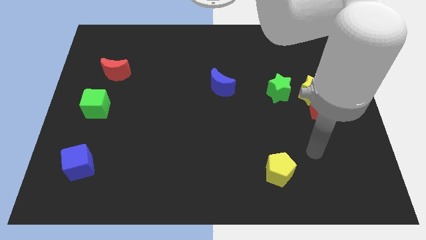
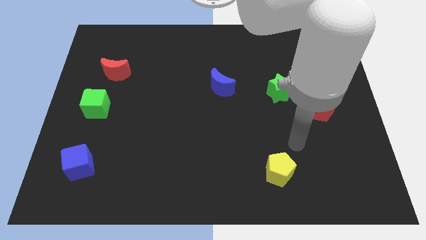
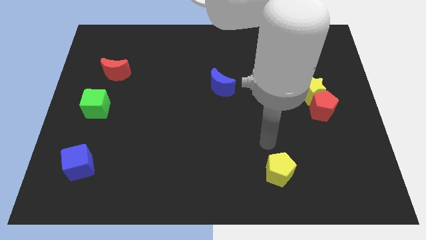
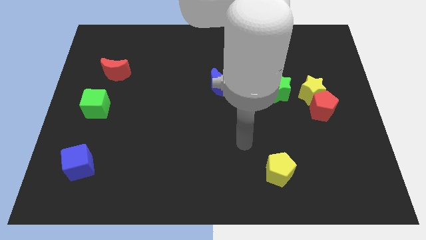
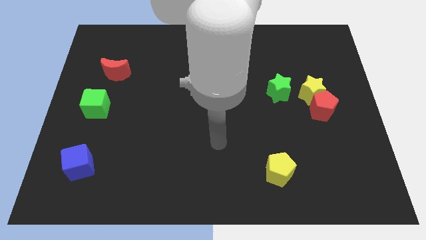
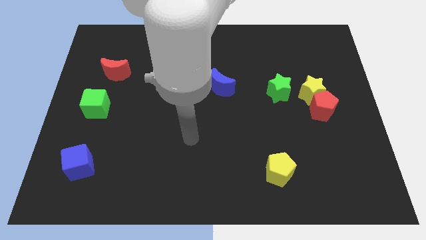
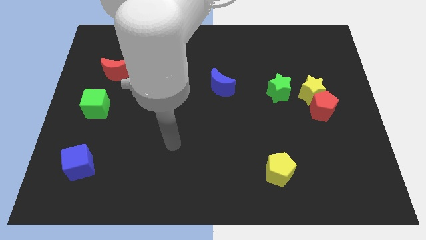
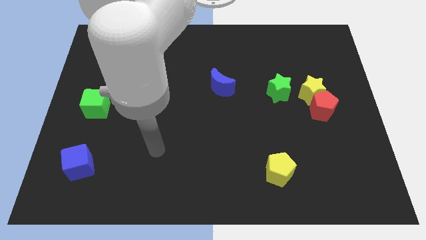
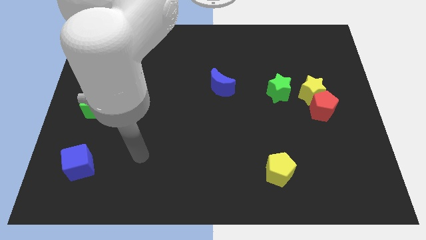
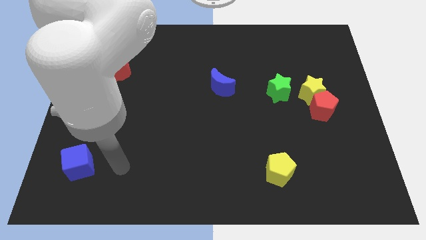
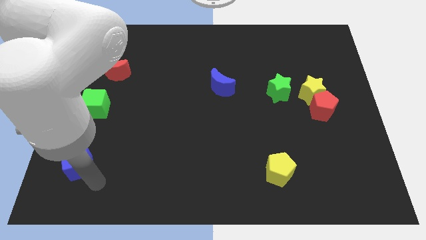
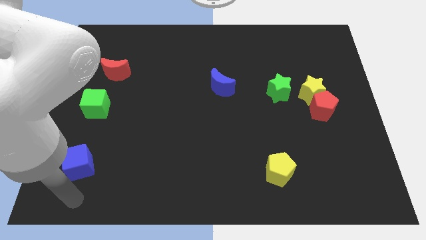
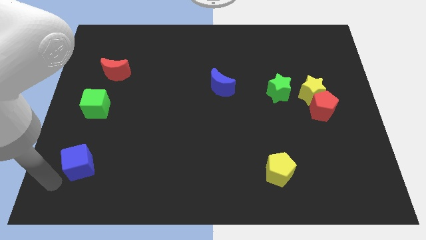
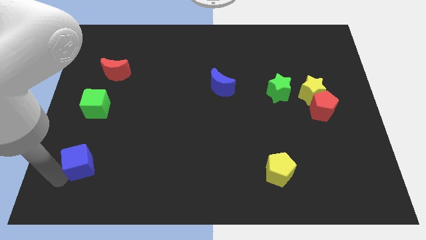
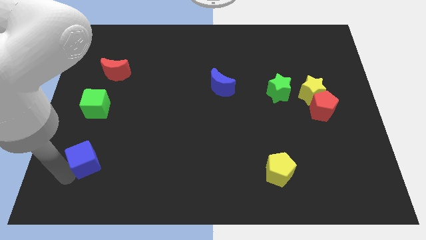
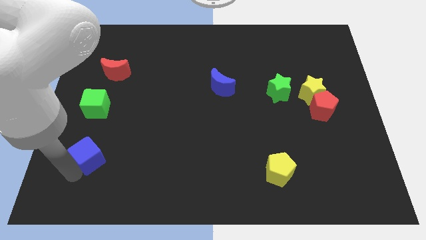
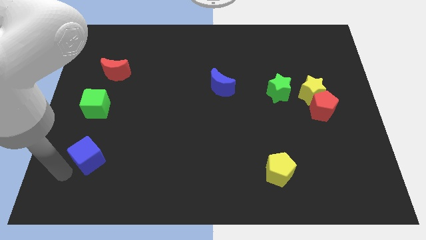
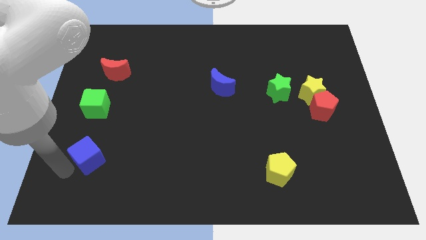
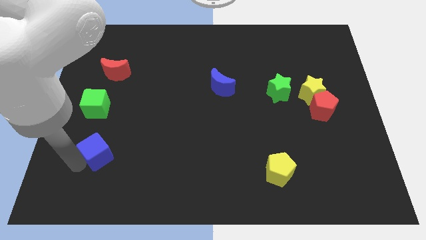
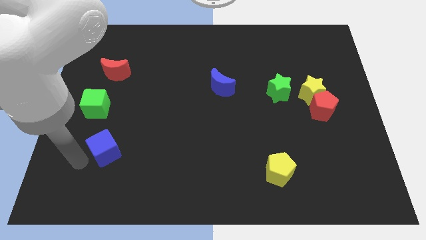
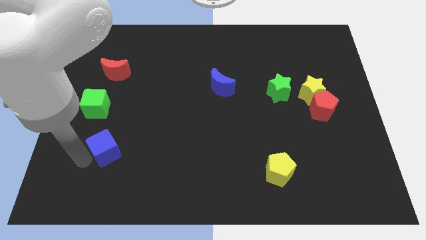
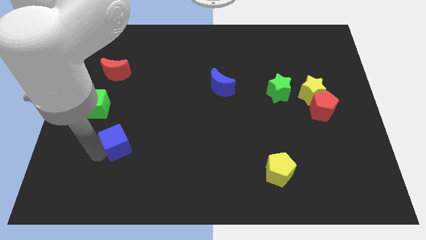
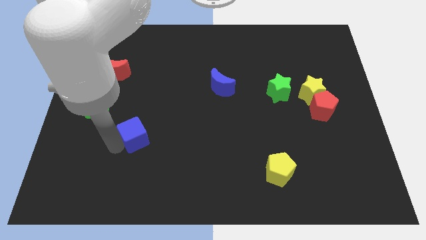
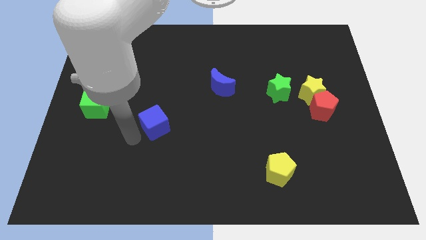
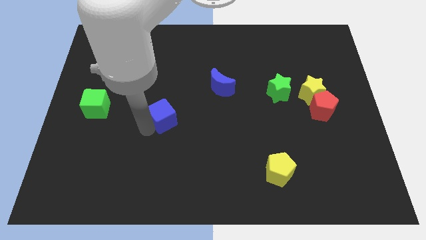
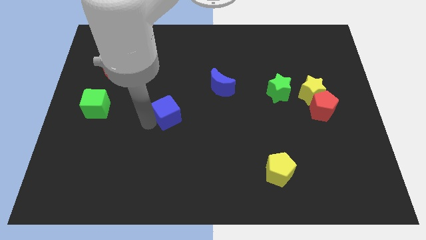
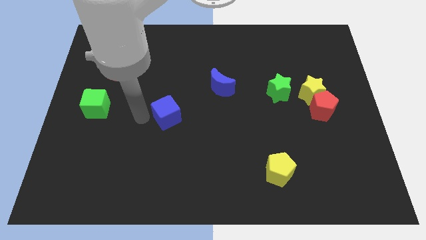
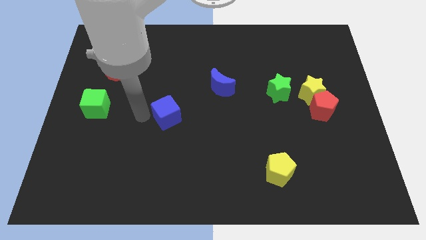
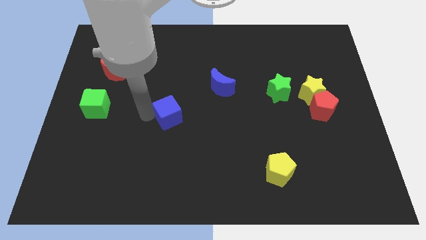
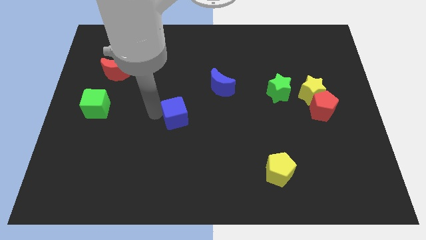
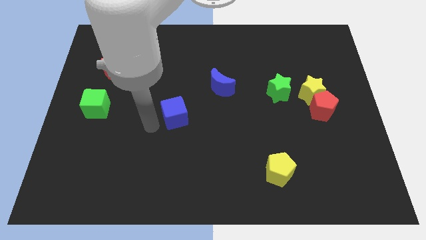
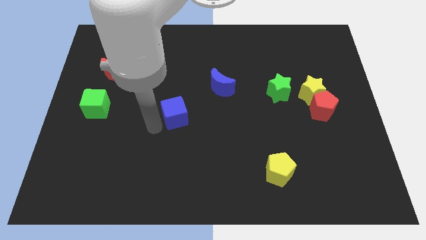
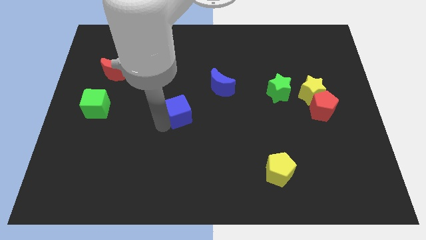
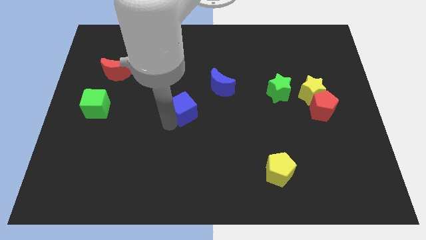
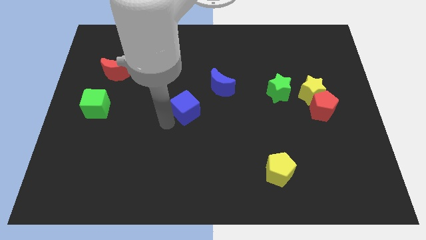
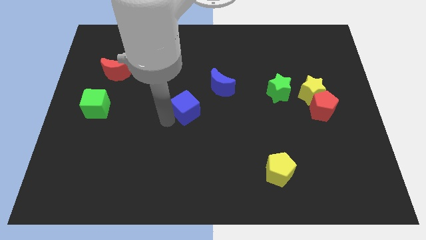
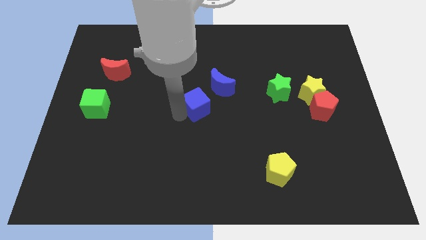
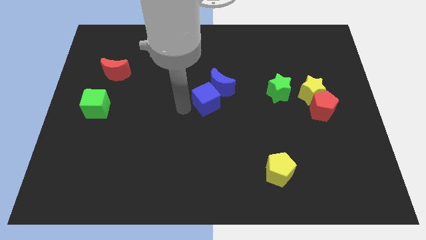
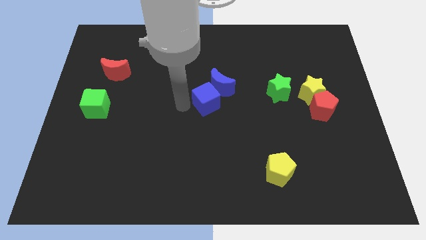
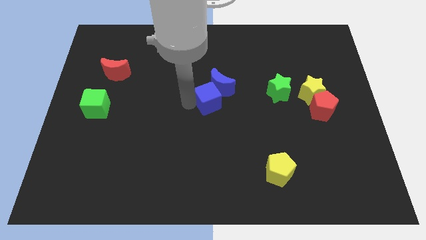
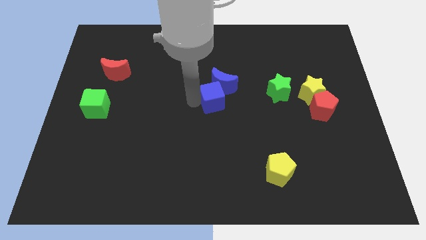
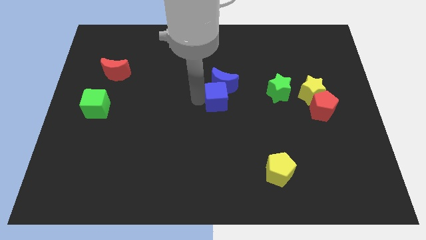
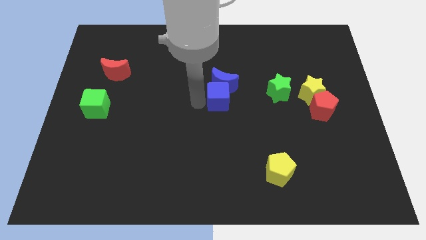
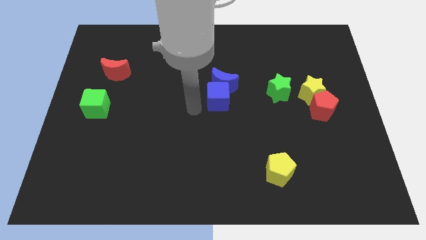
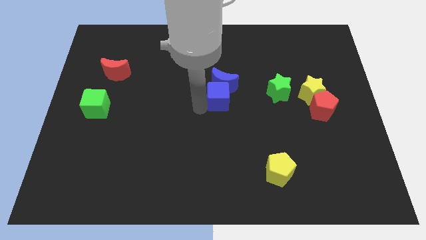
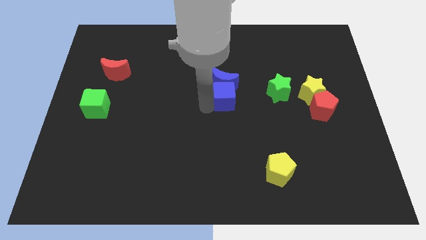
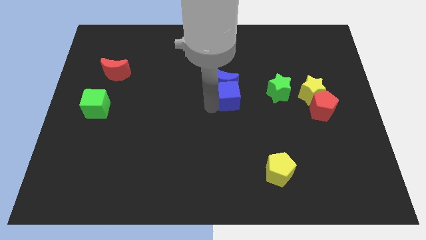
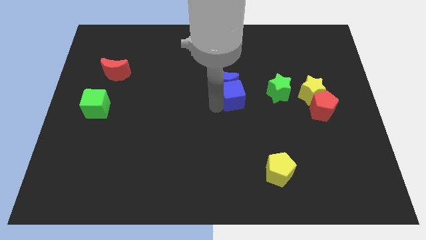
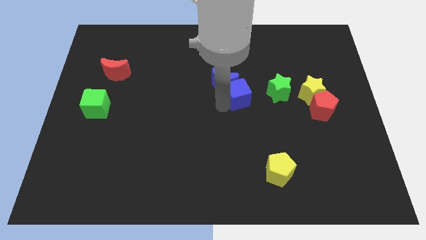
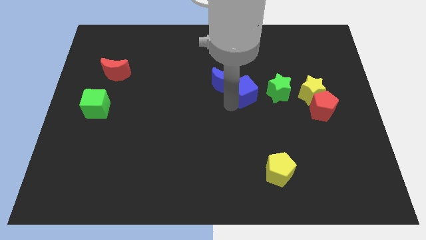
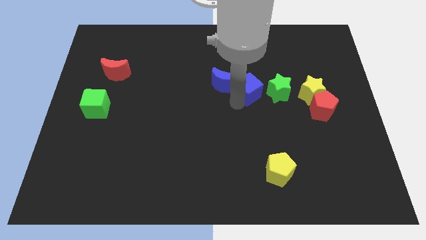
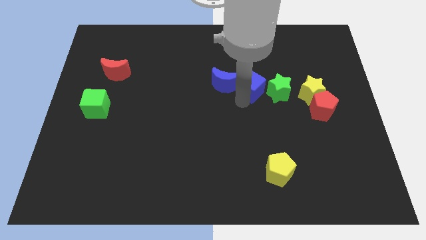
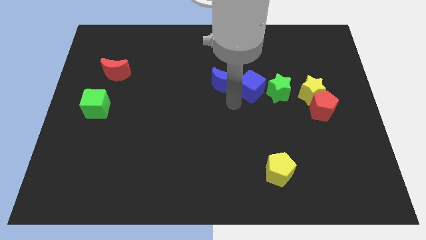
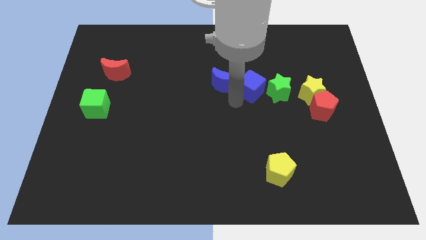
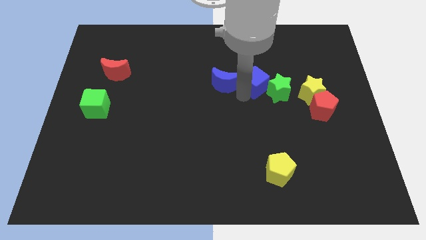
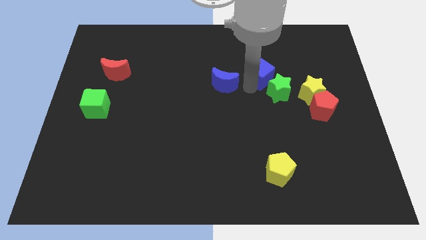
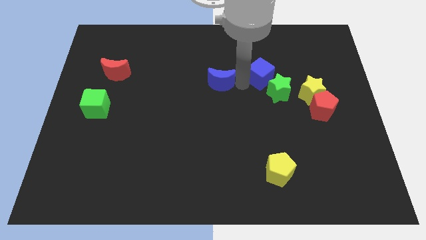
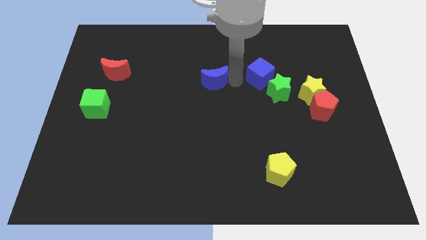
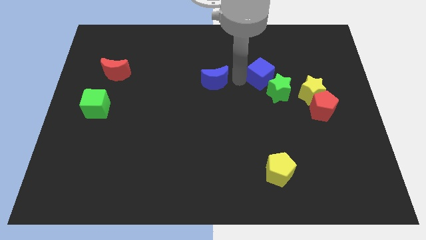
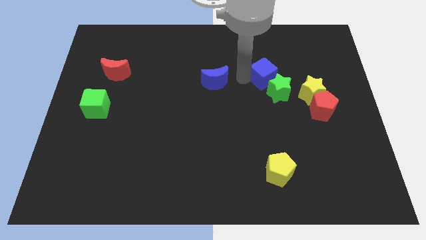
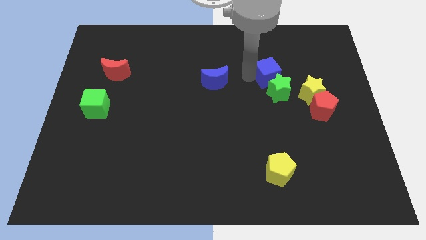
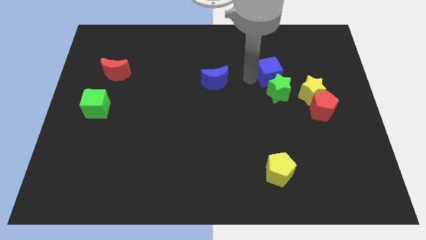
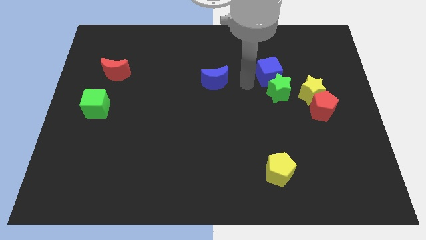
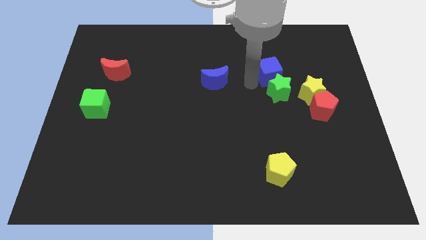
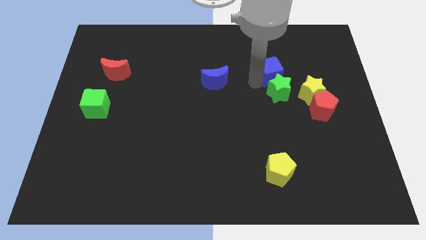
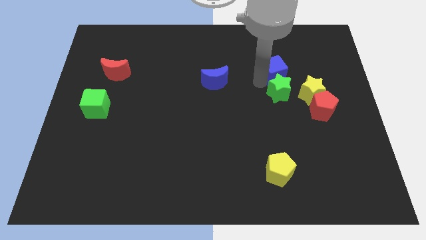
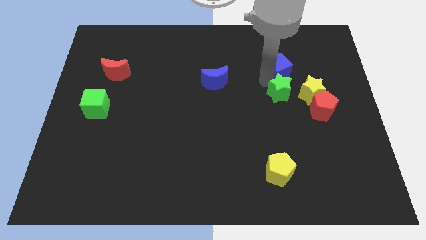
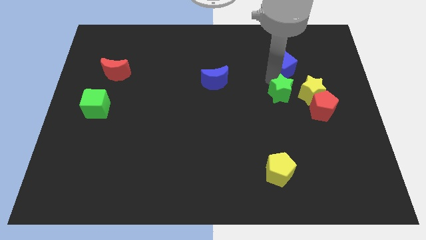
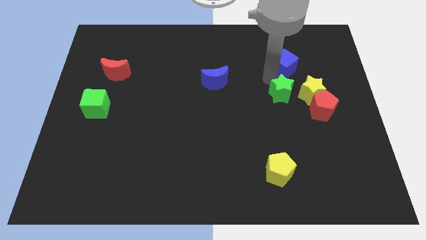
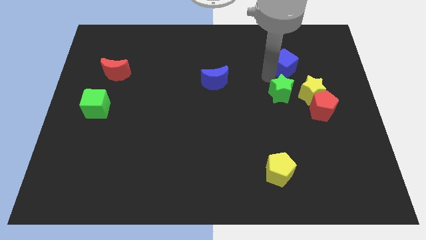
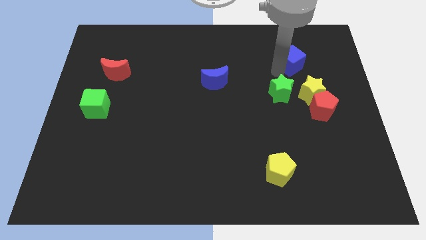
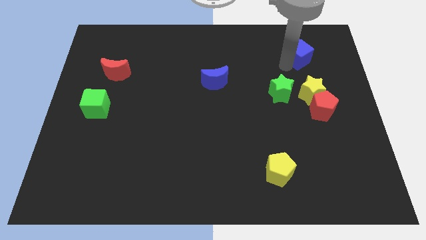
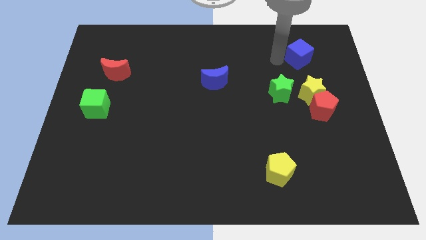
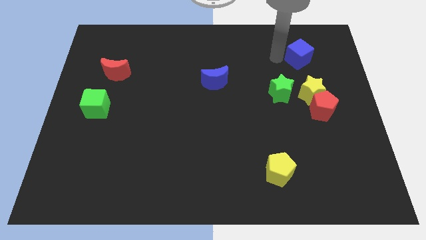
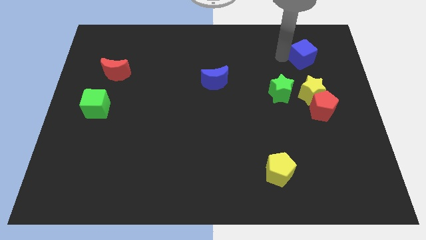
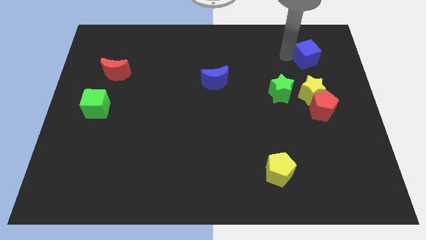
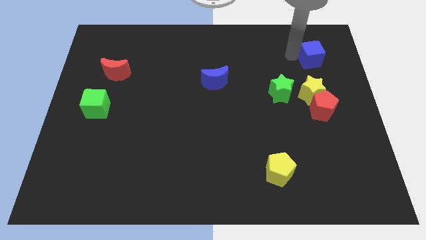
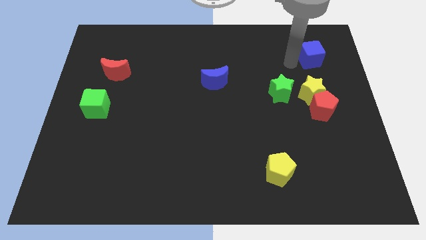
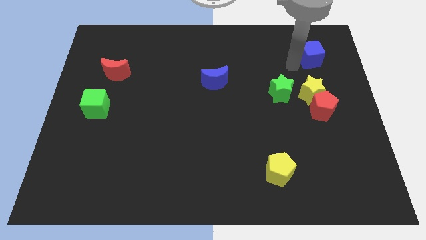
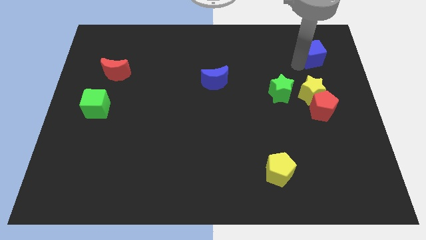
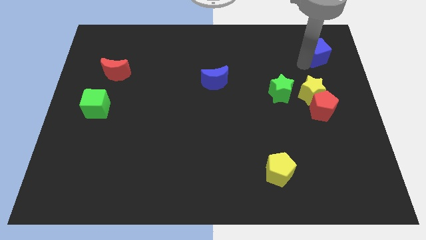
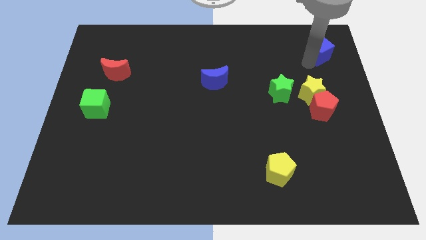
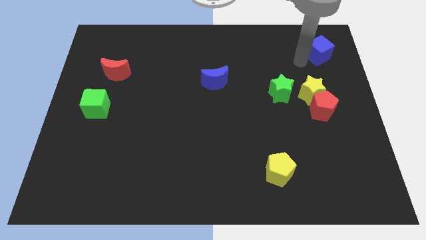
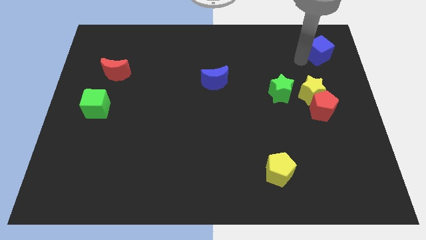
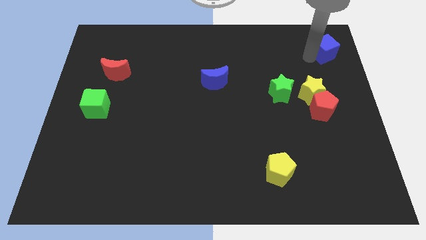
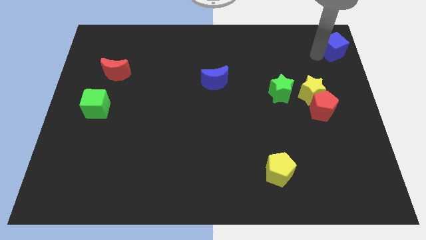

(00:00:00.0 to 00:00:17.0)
move the blue cube to the top right corner
